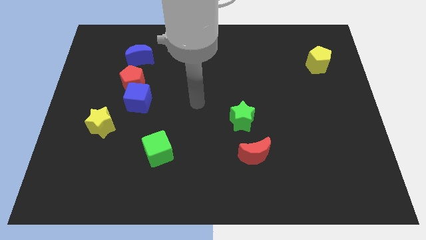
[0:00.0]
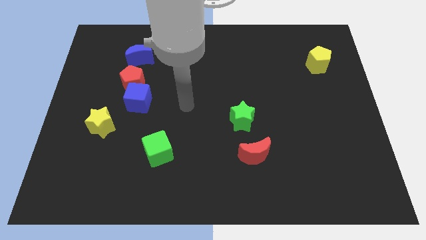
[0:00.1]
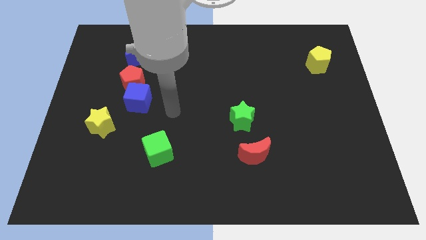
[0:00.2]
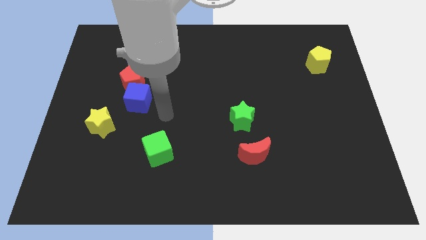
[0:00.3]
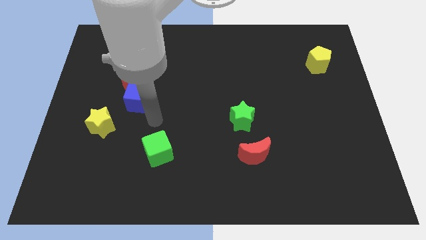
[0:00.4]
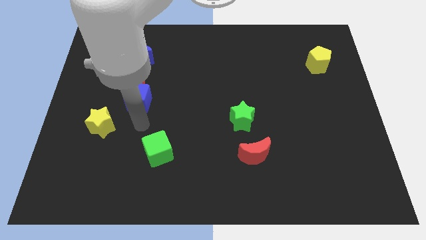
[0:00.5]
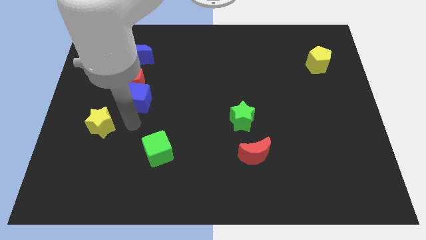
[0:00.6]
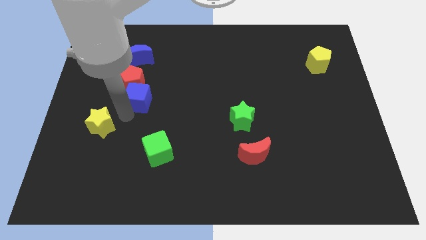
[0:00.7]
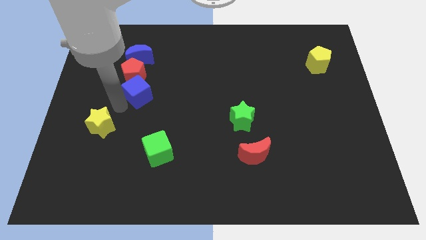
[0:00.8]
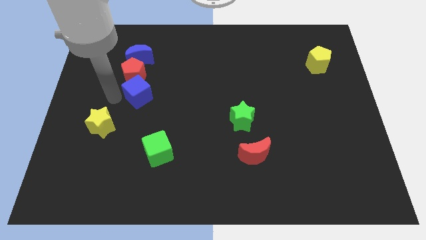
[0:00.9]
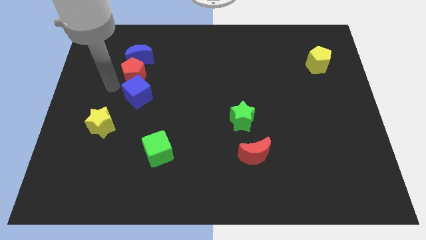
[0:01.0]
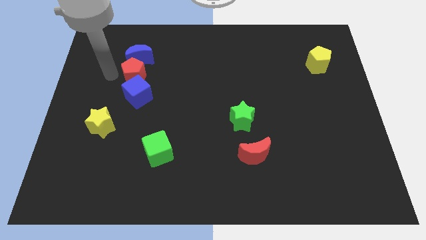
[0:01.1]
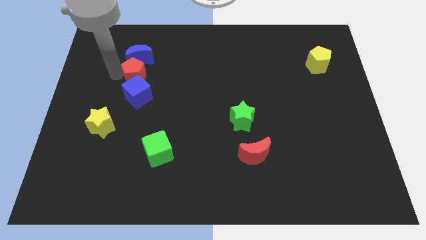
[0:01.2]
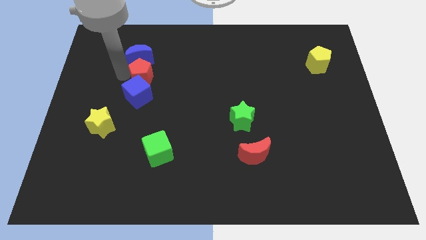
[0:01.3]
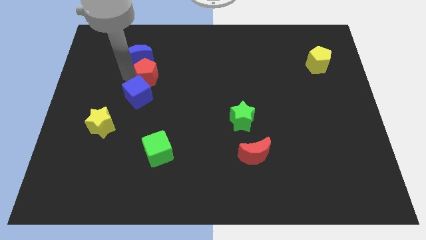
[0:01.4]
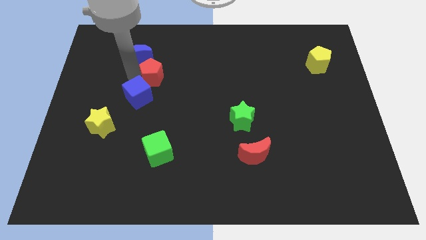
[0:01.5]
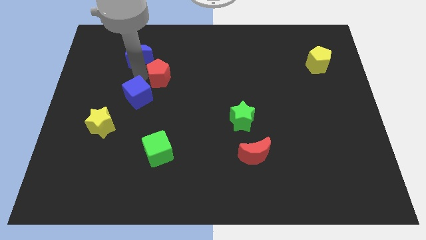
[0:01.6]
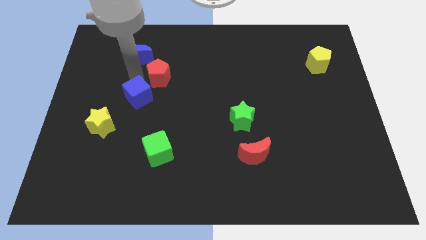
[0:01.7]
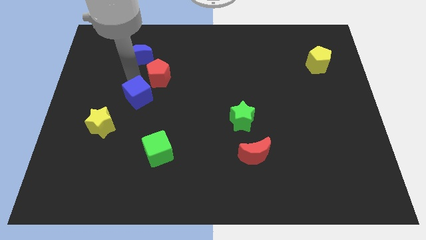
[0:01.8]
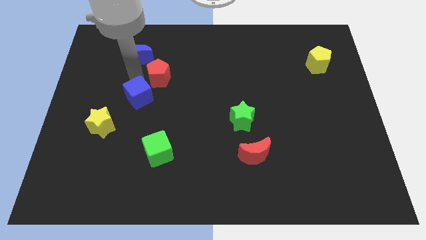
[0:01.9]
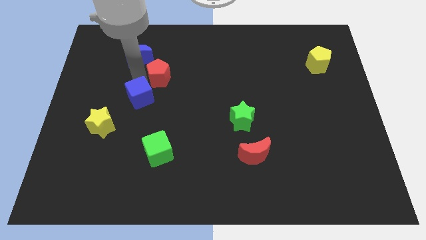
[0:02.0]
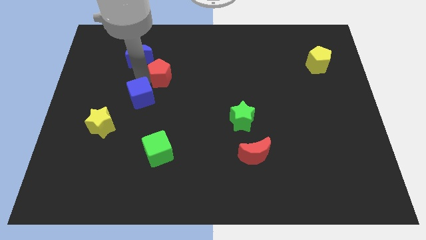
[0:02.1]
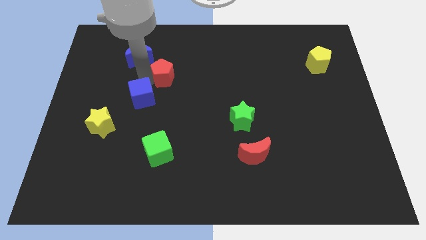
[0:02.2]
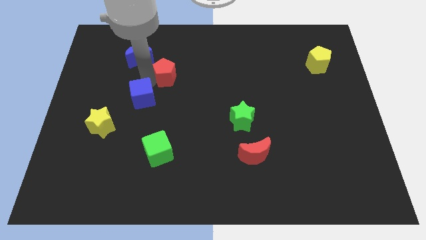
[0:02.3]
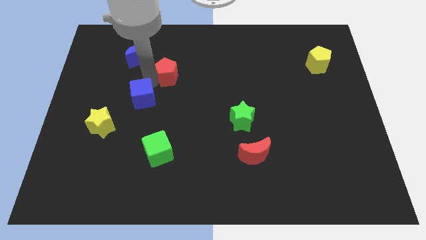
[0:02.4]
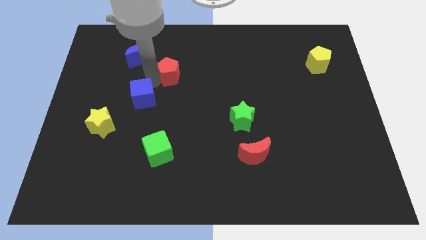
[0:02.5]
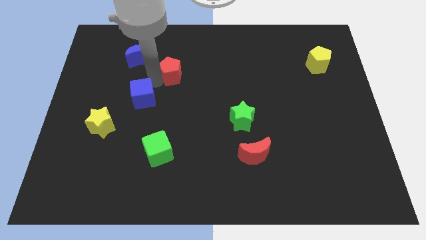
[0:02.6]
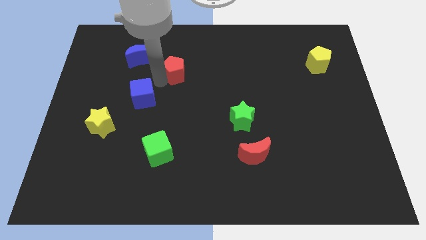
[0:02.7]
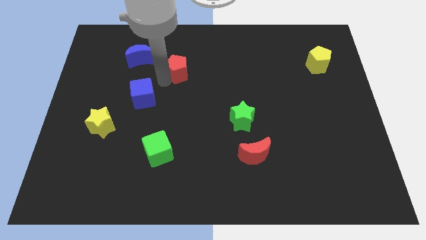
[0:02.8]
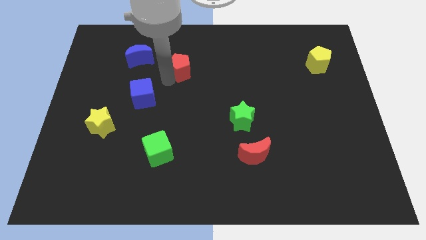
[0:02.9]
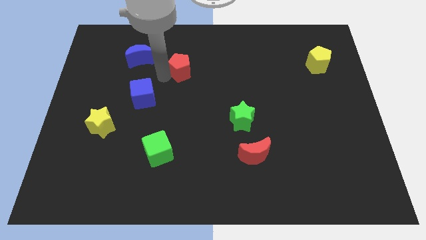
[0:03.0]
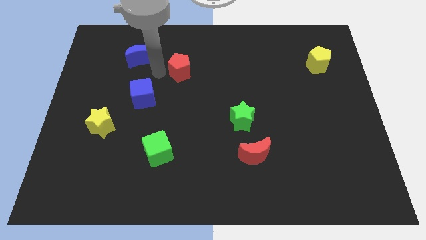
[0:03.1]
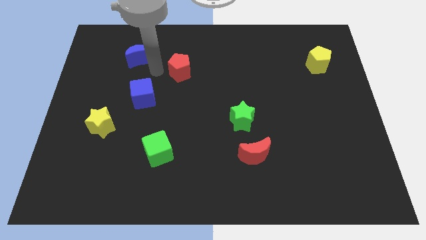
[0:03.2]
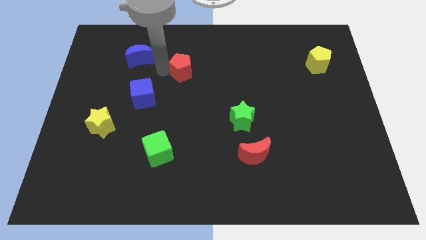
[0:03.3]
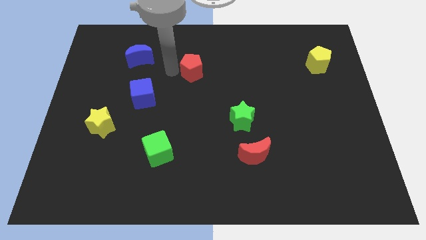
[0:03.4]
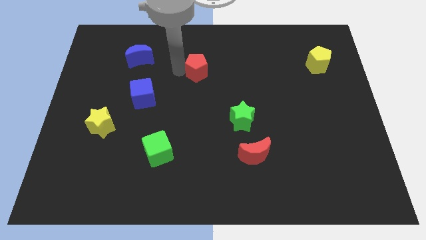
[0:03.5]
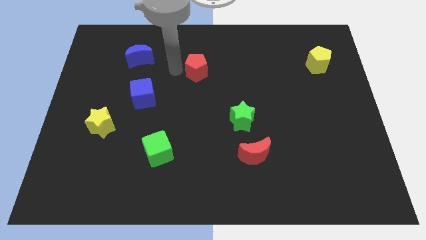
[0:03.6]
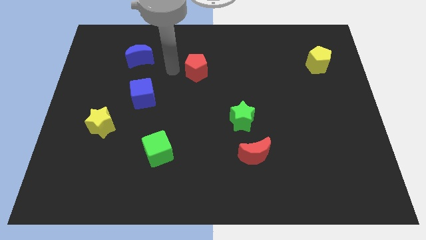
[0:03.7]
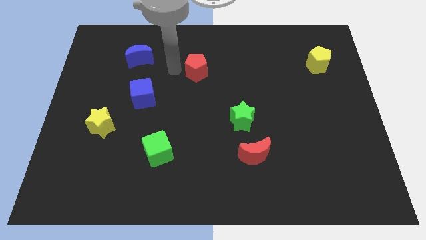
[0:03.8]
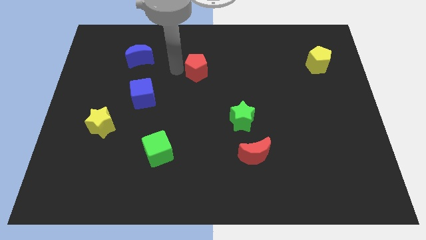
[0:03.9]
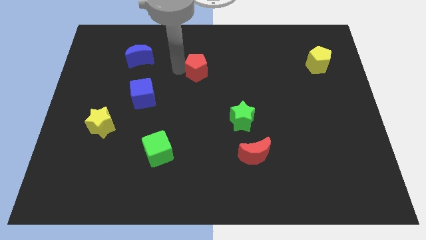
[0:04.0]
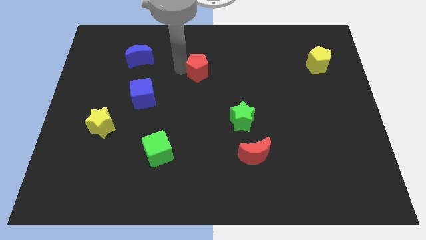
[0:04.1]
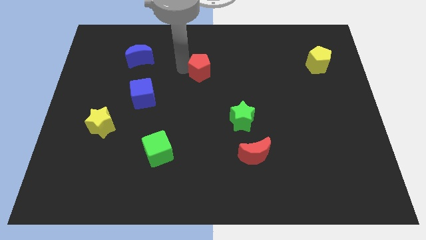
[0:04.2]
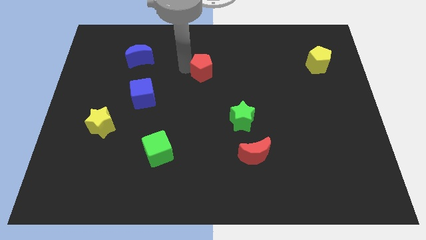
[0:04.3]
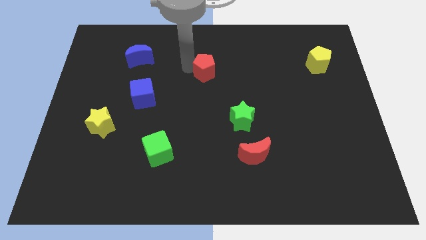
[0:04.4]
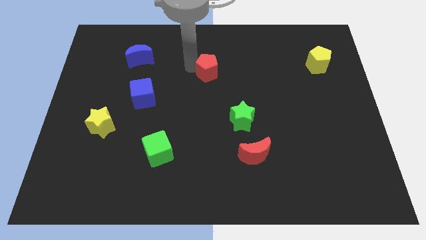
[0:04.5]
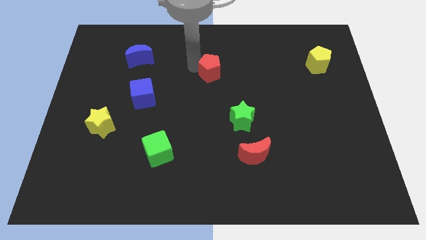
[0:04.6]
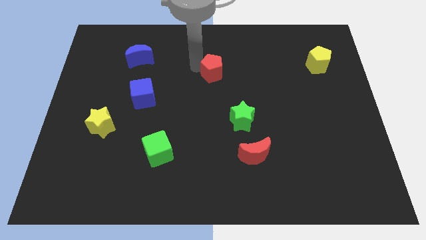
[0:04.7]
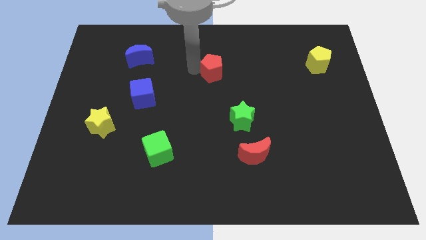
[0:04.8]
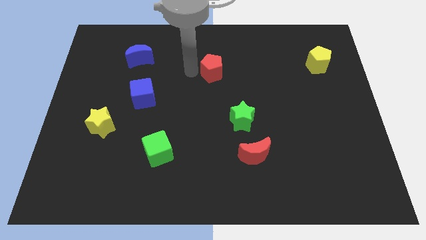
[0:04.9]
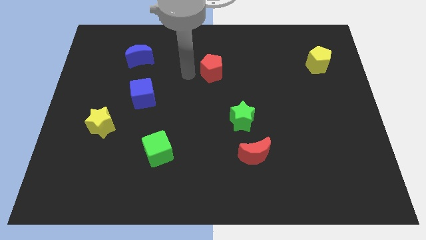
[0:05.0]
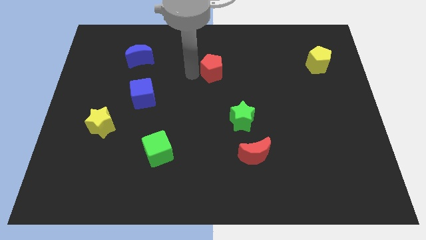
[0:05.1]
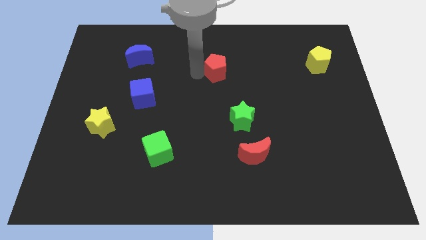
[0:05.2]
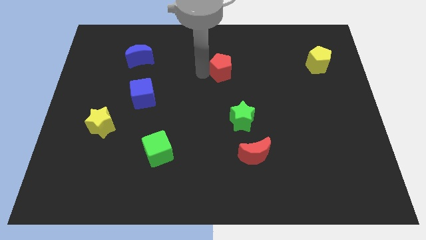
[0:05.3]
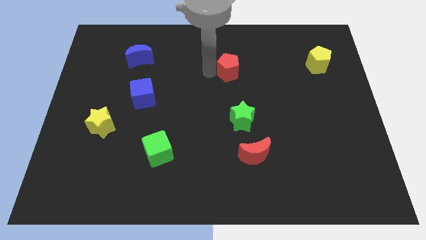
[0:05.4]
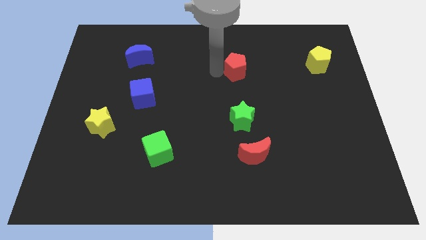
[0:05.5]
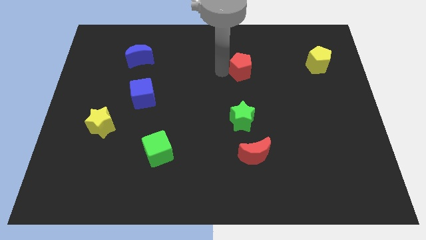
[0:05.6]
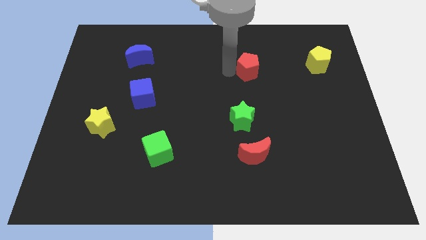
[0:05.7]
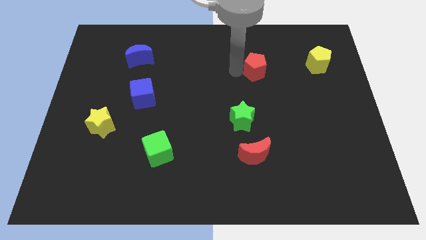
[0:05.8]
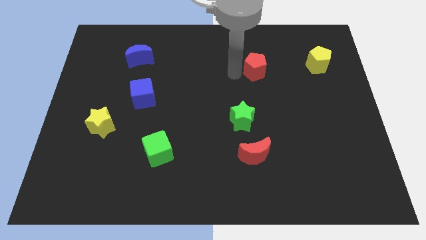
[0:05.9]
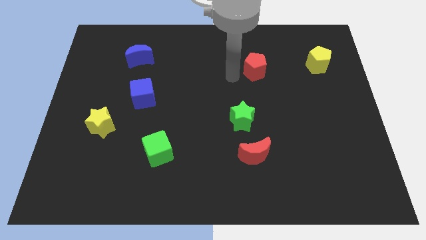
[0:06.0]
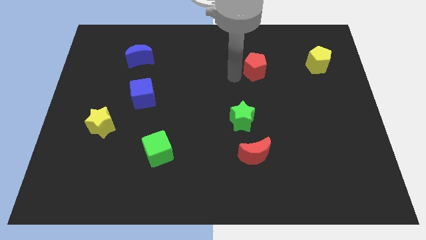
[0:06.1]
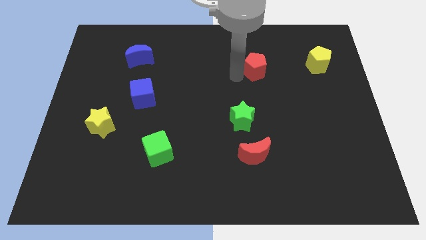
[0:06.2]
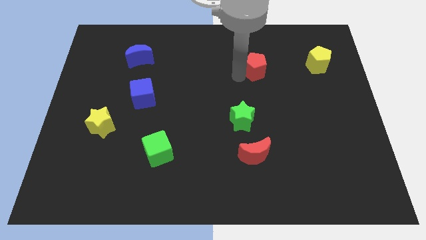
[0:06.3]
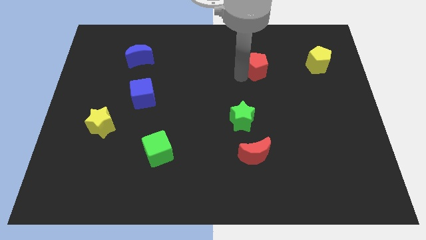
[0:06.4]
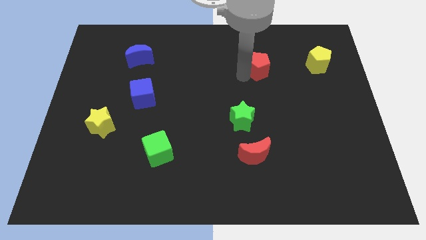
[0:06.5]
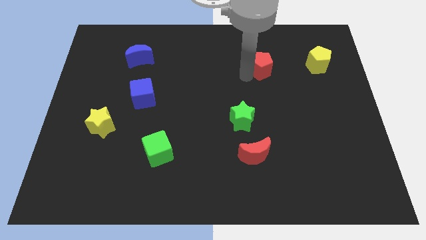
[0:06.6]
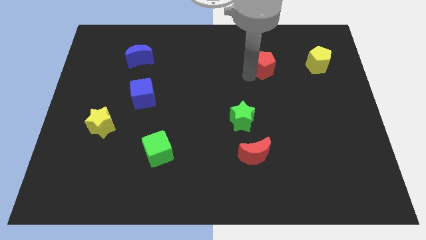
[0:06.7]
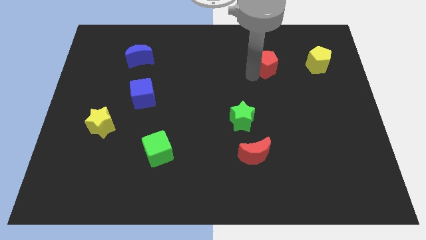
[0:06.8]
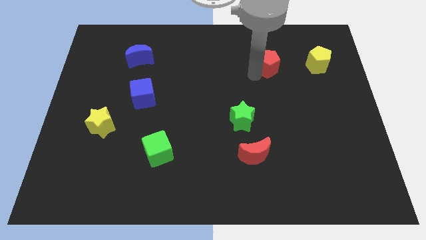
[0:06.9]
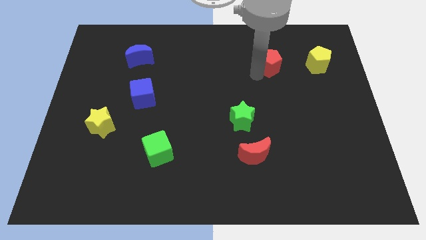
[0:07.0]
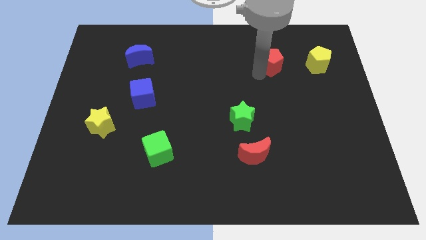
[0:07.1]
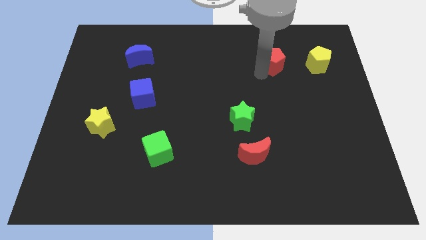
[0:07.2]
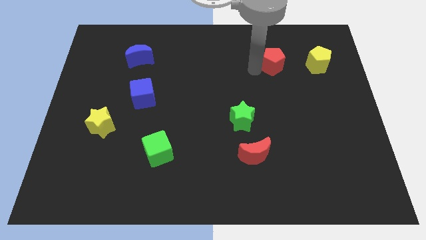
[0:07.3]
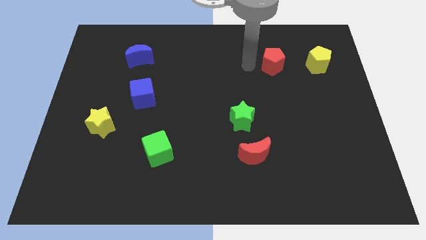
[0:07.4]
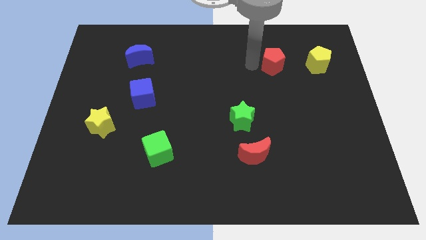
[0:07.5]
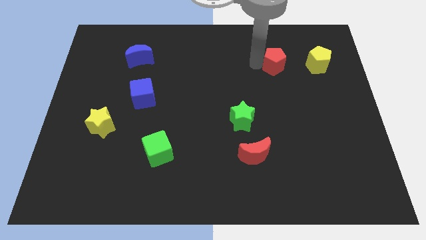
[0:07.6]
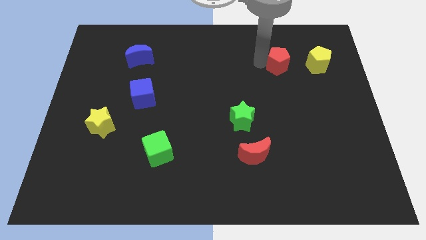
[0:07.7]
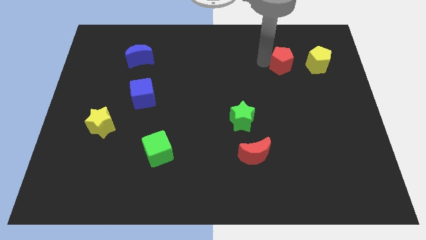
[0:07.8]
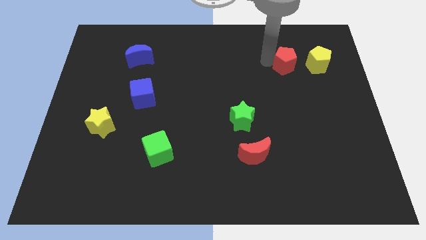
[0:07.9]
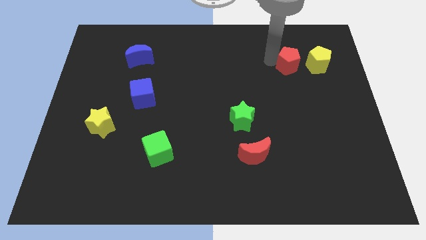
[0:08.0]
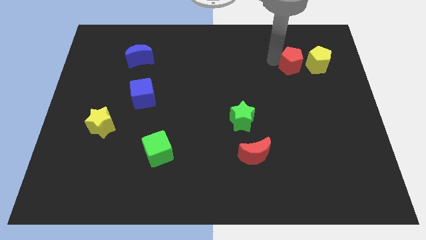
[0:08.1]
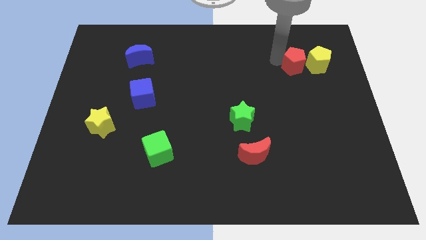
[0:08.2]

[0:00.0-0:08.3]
move the red pentagon towards the yellow pentagon
